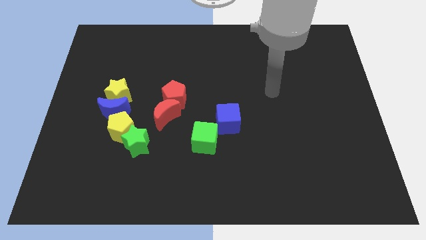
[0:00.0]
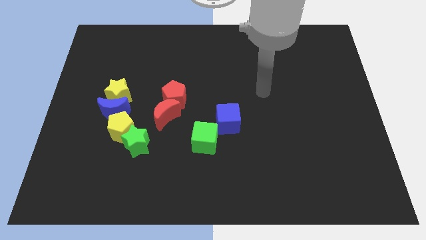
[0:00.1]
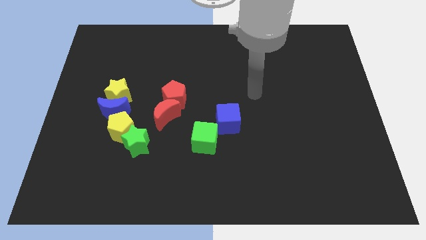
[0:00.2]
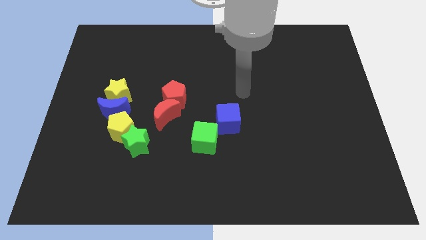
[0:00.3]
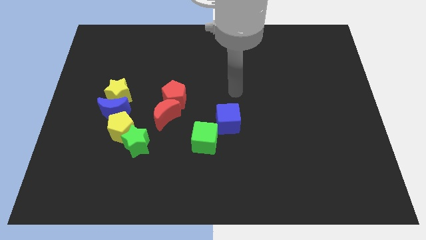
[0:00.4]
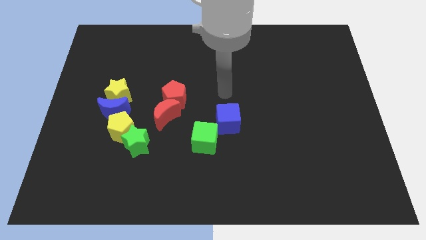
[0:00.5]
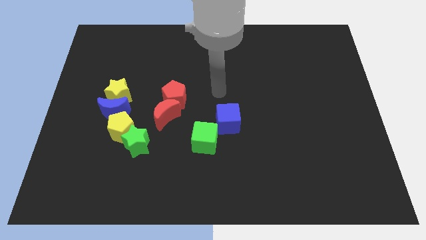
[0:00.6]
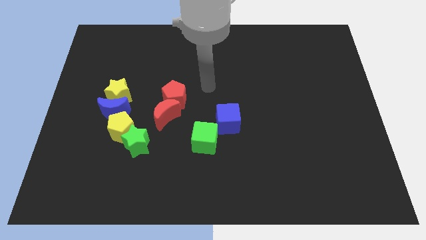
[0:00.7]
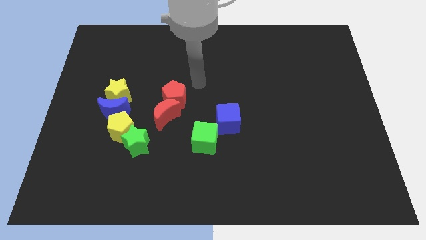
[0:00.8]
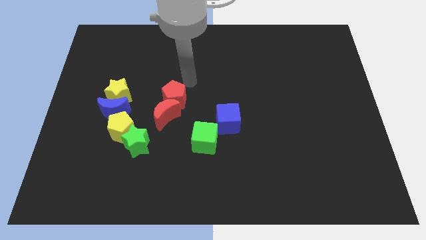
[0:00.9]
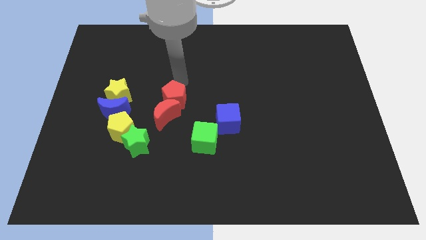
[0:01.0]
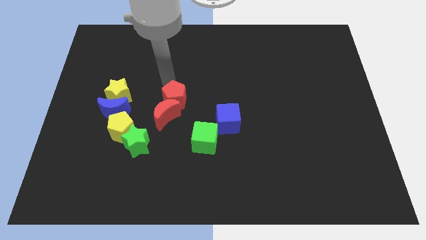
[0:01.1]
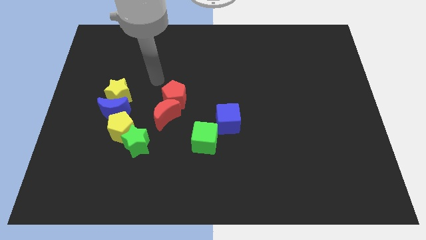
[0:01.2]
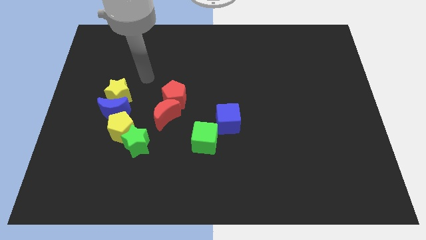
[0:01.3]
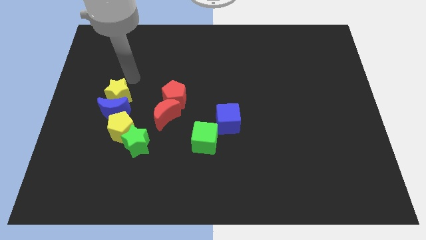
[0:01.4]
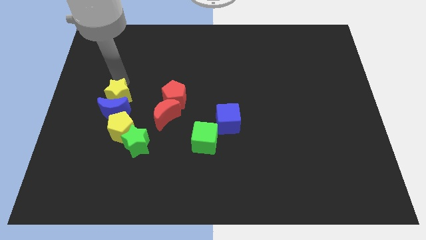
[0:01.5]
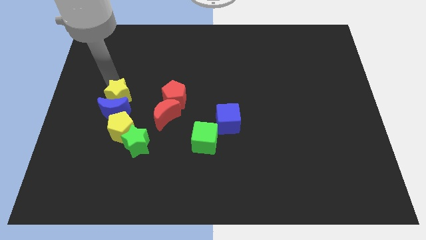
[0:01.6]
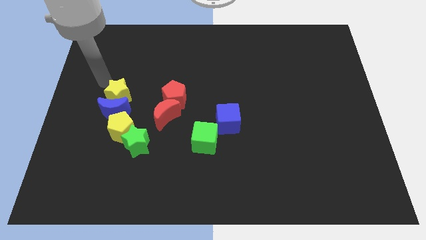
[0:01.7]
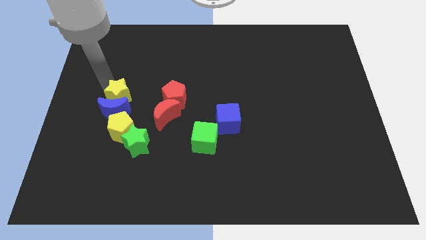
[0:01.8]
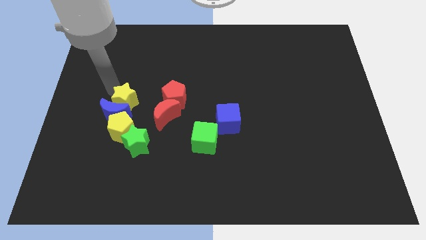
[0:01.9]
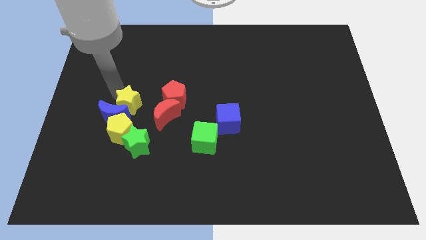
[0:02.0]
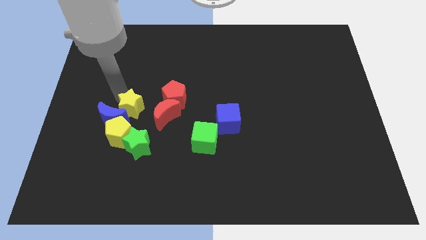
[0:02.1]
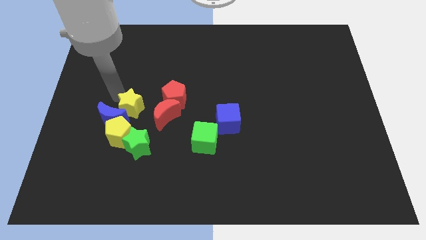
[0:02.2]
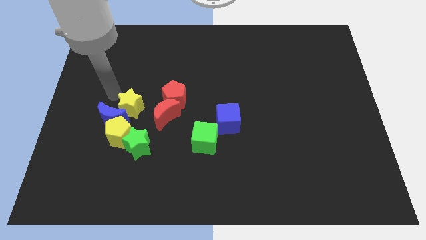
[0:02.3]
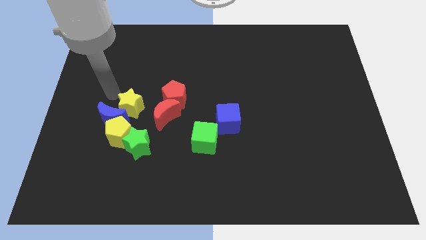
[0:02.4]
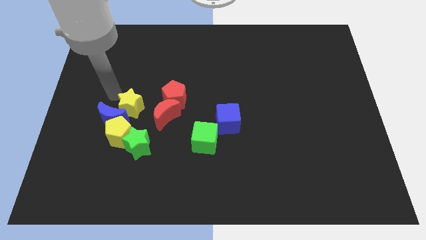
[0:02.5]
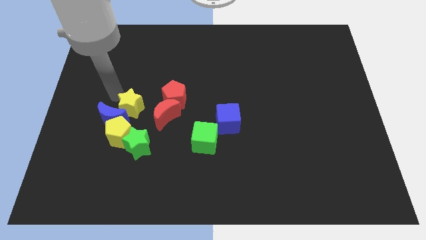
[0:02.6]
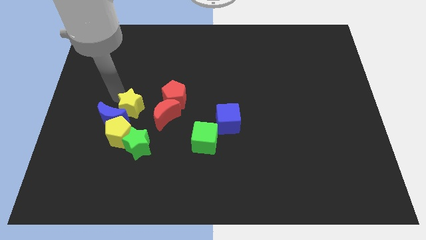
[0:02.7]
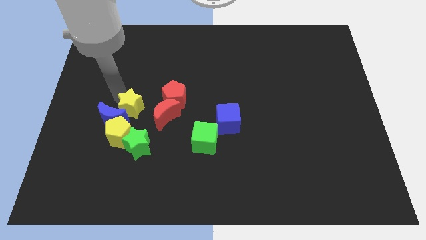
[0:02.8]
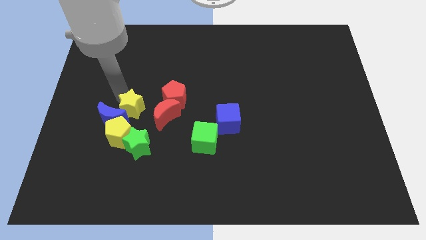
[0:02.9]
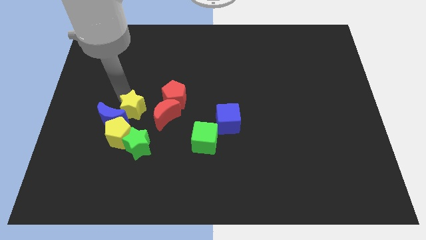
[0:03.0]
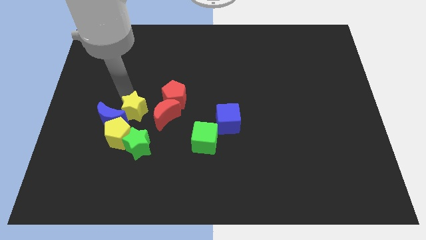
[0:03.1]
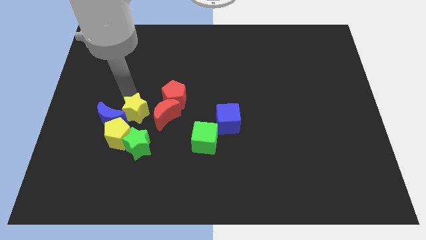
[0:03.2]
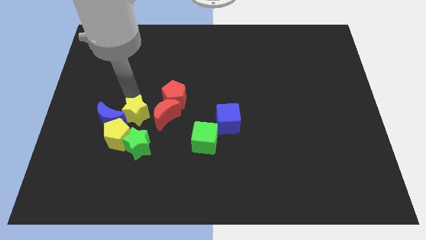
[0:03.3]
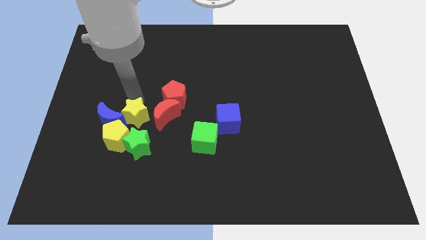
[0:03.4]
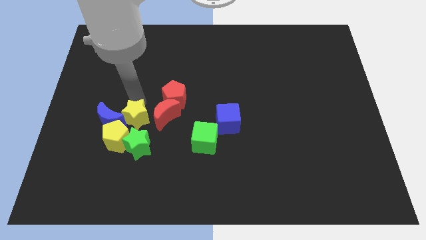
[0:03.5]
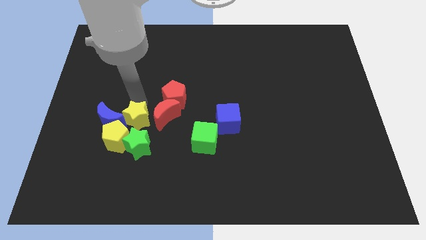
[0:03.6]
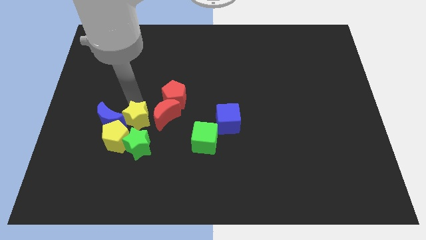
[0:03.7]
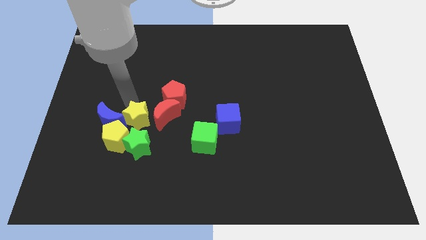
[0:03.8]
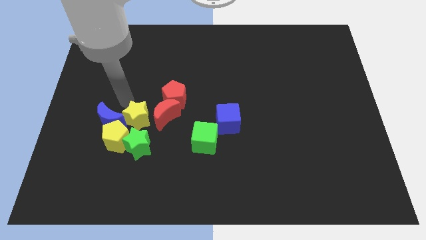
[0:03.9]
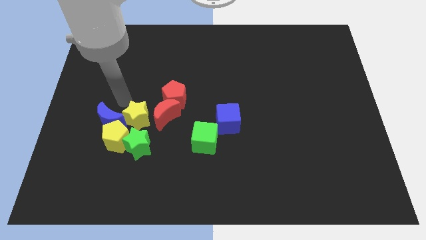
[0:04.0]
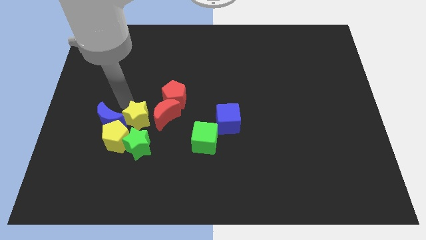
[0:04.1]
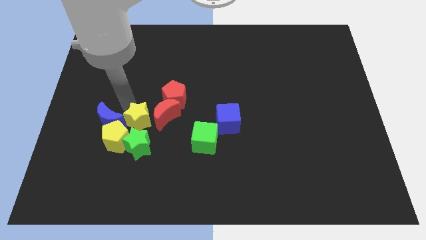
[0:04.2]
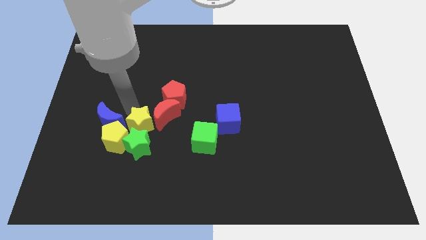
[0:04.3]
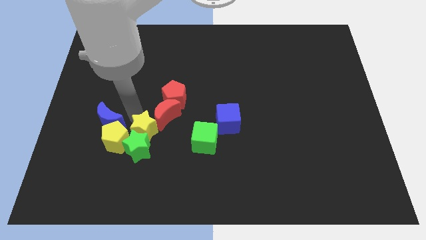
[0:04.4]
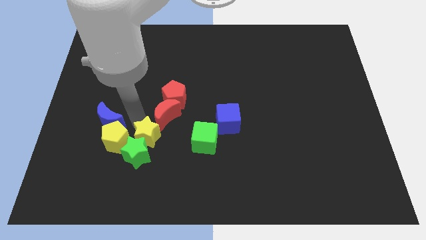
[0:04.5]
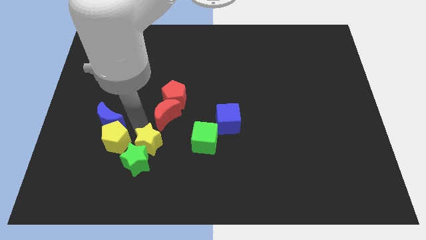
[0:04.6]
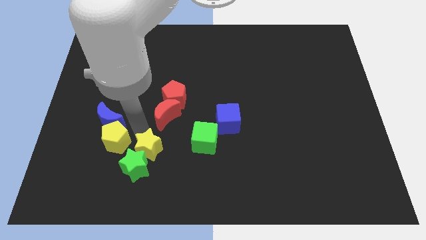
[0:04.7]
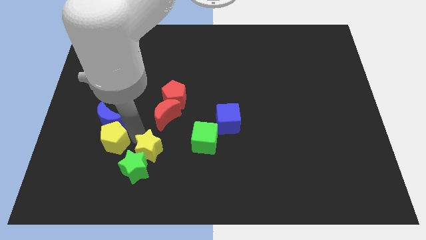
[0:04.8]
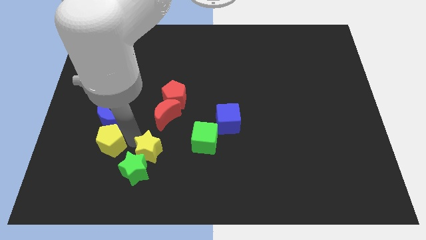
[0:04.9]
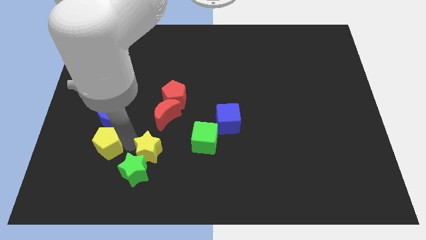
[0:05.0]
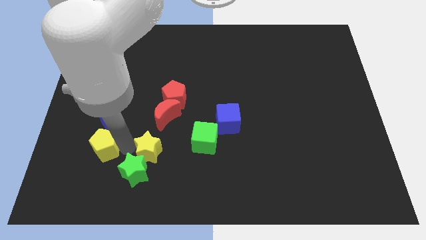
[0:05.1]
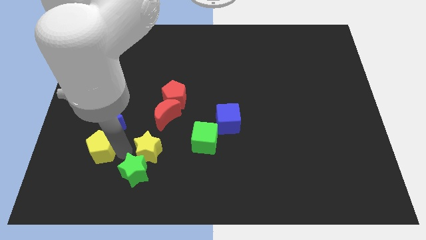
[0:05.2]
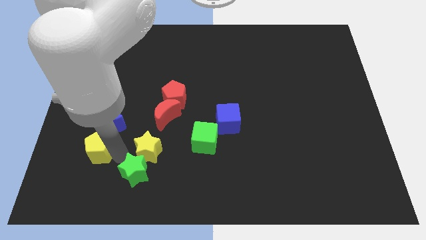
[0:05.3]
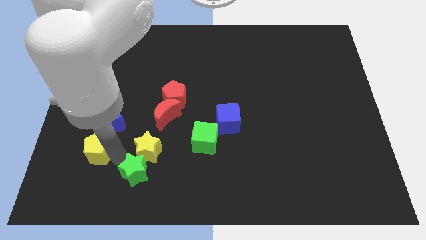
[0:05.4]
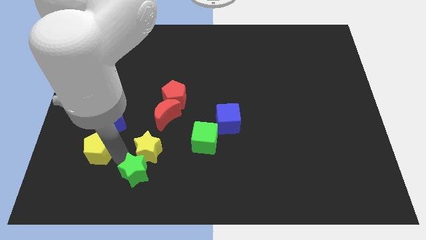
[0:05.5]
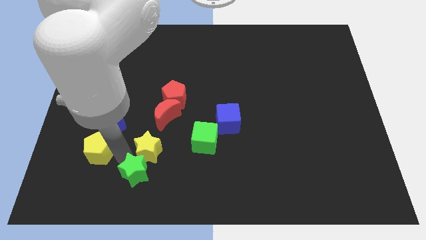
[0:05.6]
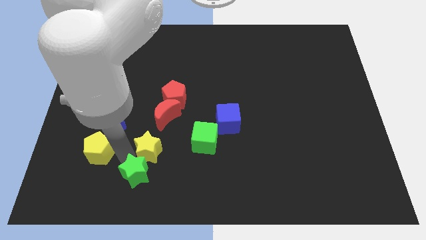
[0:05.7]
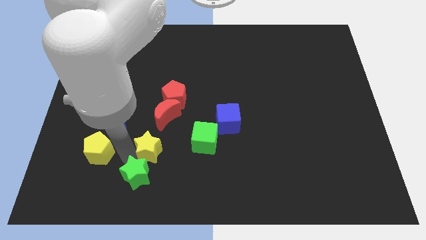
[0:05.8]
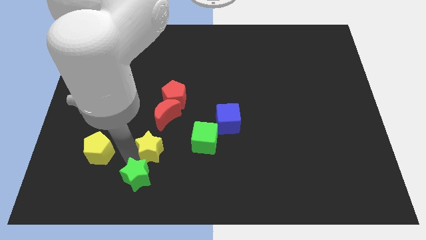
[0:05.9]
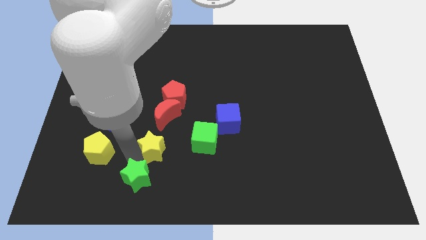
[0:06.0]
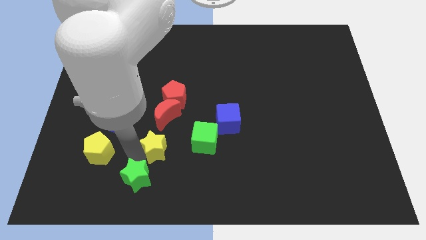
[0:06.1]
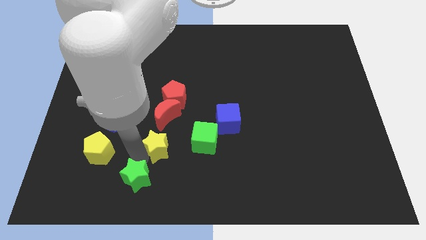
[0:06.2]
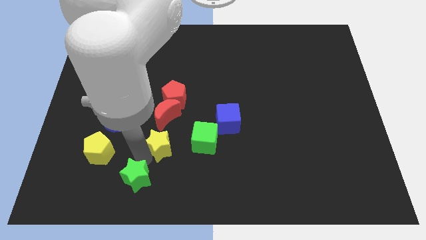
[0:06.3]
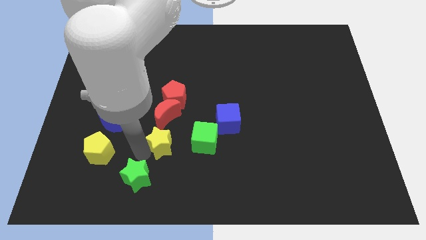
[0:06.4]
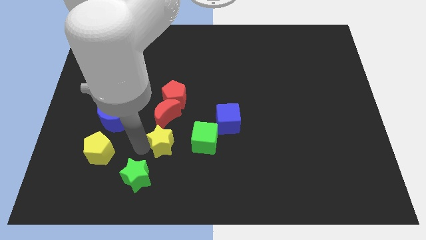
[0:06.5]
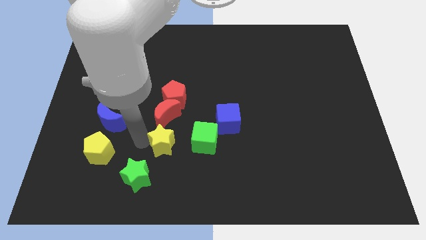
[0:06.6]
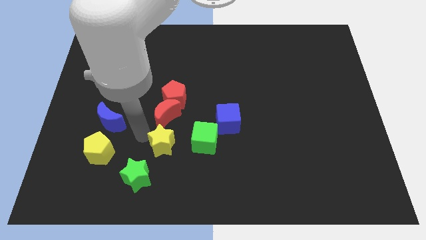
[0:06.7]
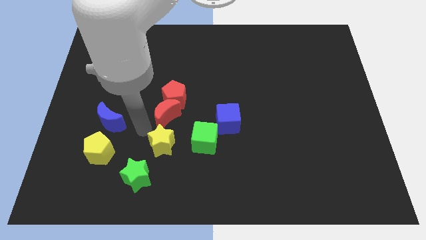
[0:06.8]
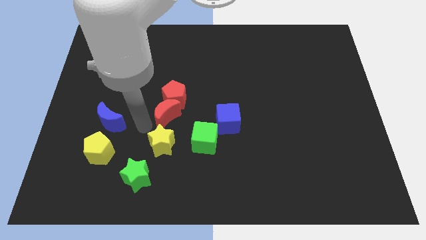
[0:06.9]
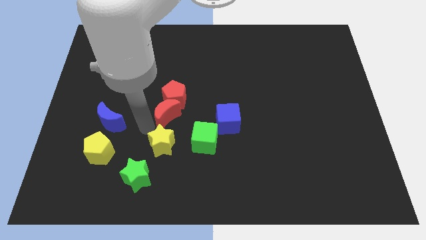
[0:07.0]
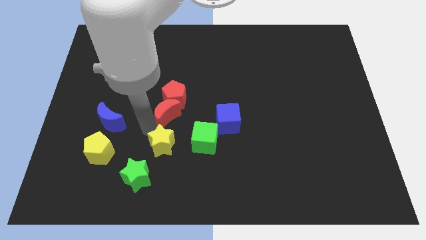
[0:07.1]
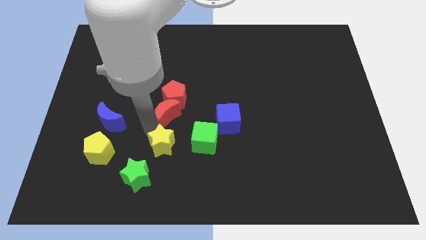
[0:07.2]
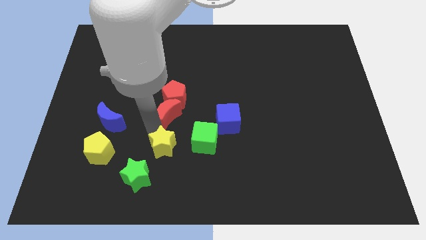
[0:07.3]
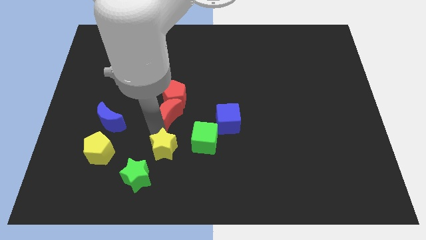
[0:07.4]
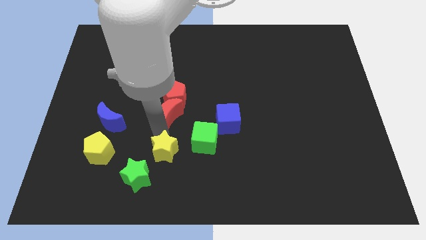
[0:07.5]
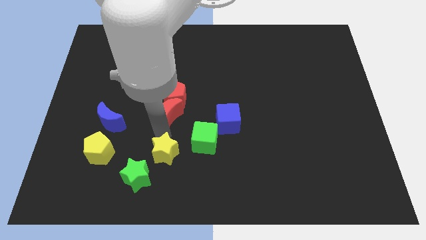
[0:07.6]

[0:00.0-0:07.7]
push the yellow star down and to the right diagonally

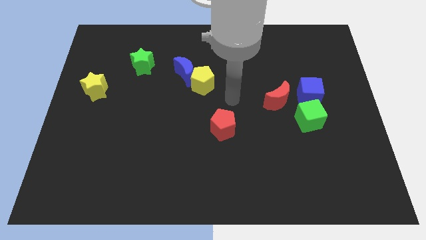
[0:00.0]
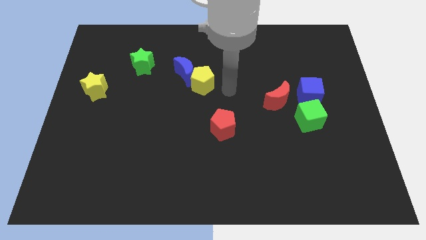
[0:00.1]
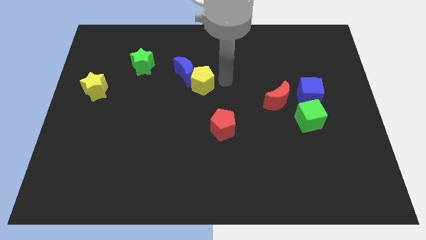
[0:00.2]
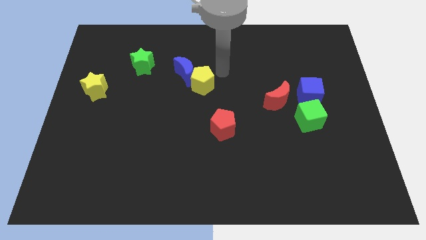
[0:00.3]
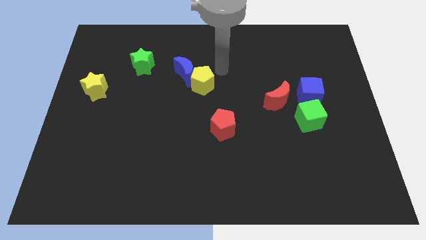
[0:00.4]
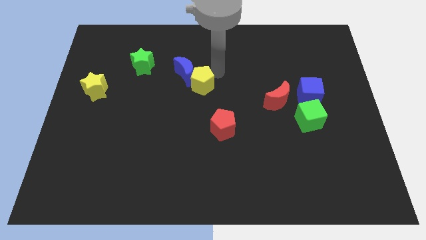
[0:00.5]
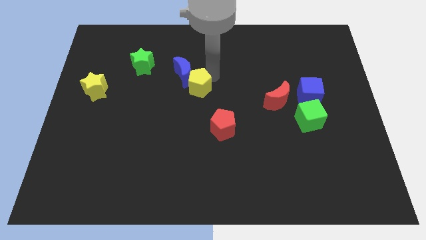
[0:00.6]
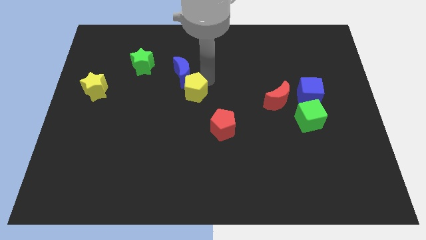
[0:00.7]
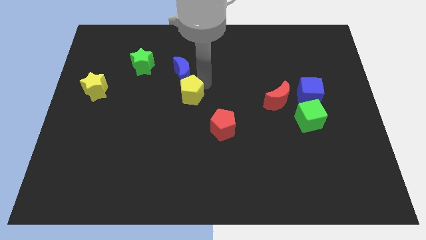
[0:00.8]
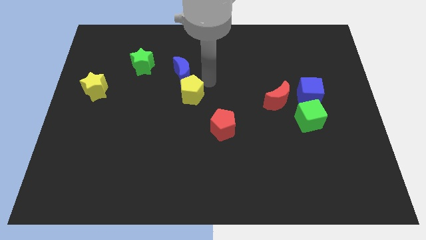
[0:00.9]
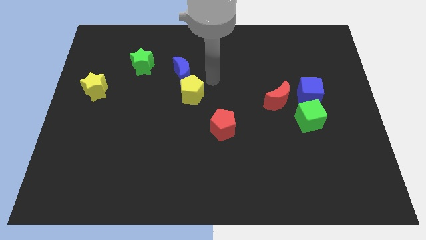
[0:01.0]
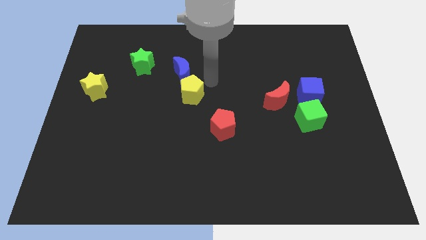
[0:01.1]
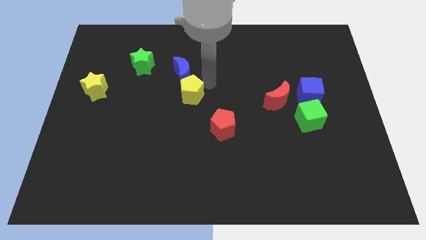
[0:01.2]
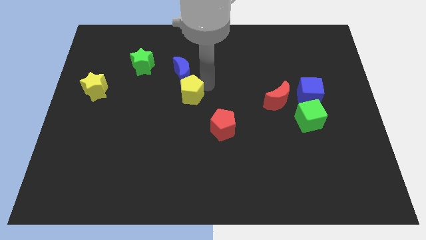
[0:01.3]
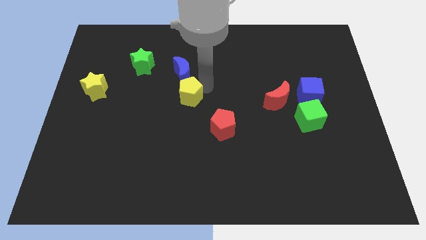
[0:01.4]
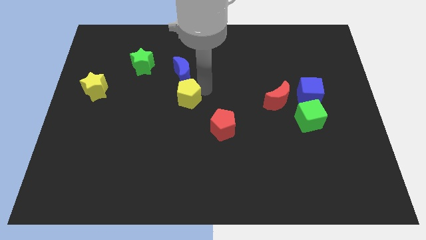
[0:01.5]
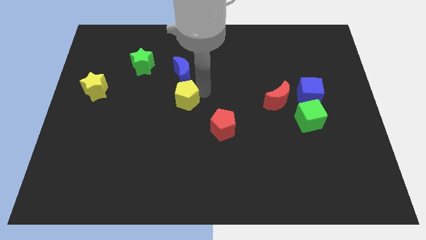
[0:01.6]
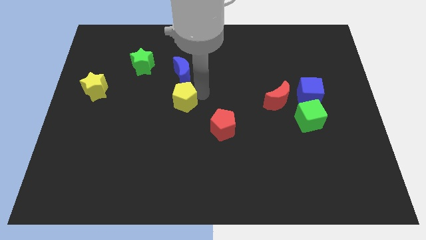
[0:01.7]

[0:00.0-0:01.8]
slightly move the yellow pentagon diagonally down and to the left
